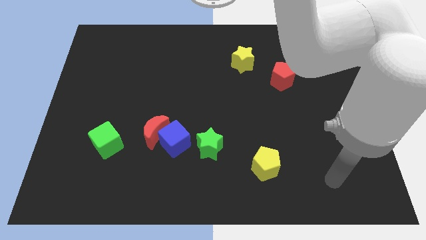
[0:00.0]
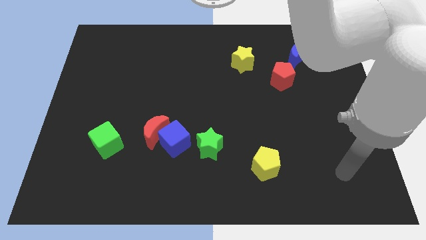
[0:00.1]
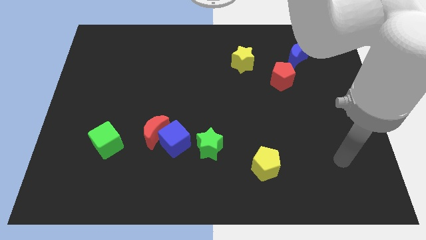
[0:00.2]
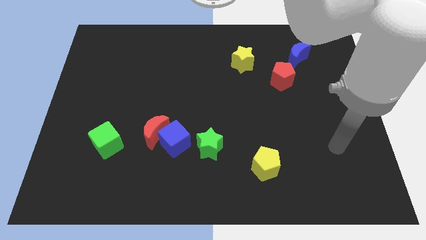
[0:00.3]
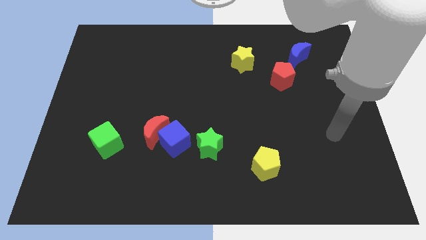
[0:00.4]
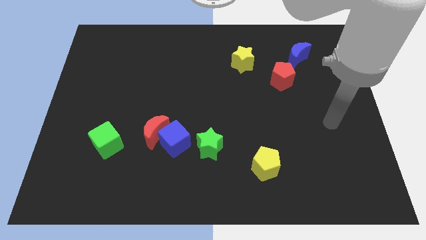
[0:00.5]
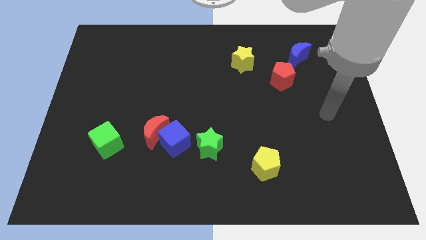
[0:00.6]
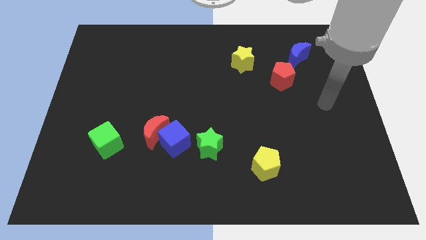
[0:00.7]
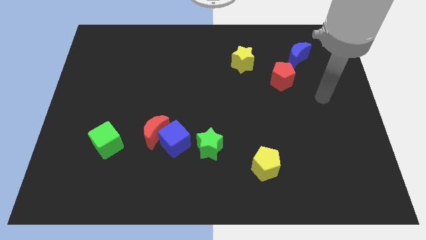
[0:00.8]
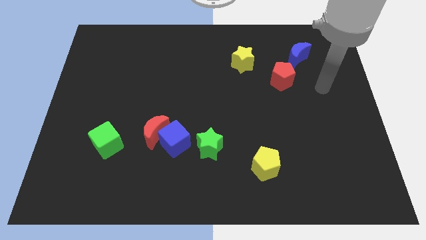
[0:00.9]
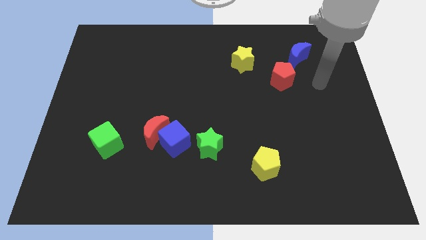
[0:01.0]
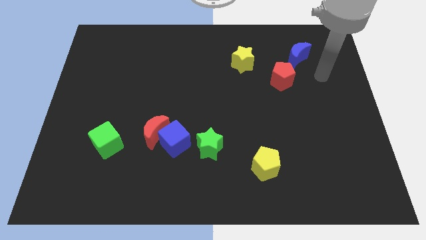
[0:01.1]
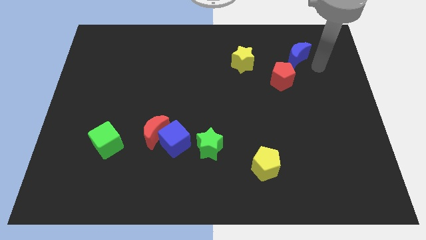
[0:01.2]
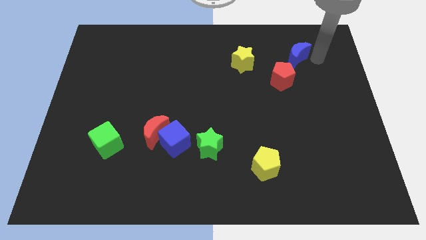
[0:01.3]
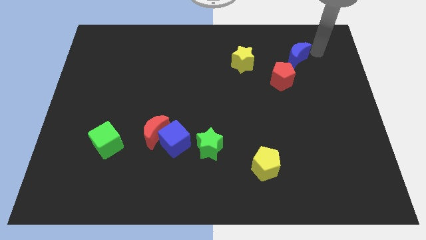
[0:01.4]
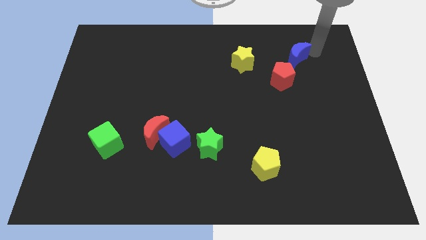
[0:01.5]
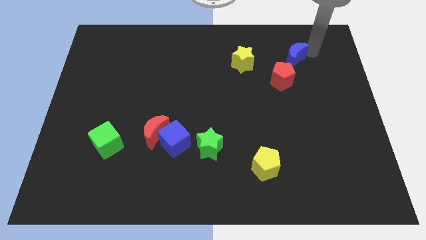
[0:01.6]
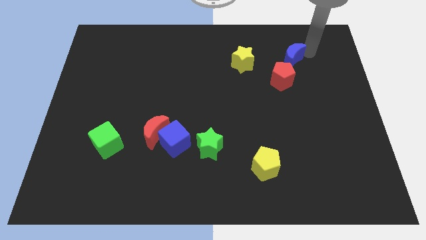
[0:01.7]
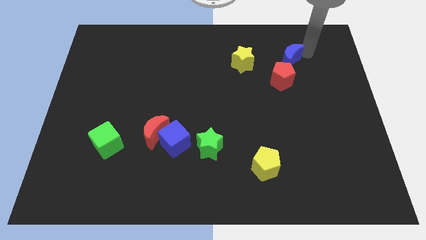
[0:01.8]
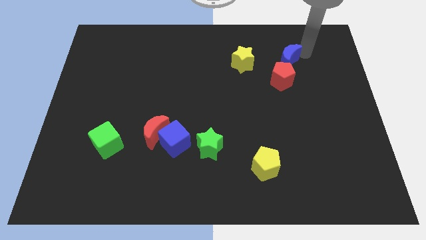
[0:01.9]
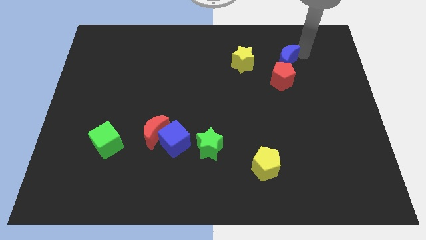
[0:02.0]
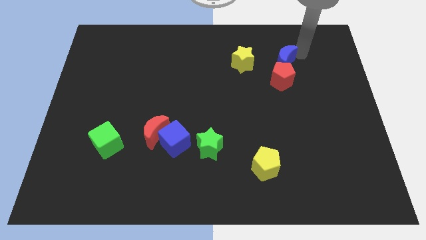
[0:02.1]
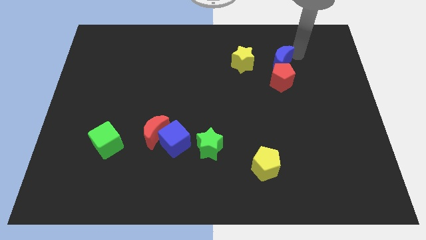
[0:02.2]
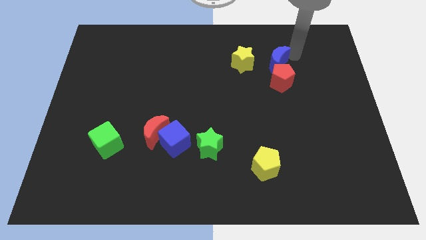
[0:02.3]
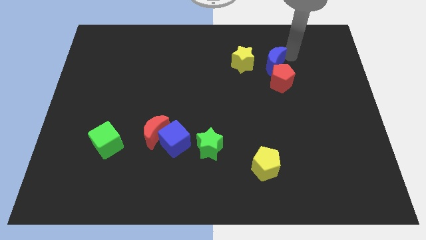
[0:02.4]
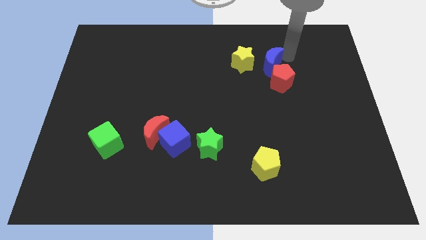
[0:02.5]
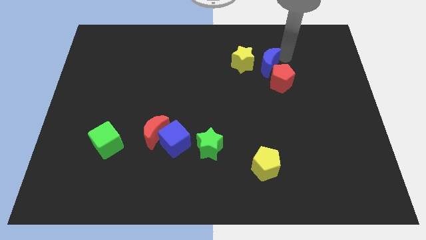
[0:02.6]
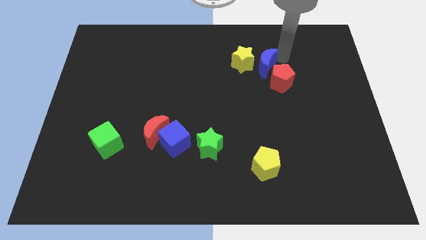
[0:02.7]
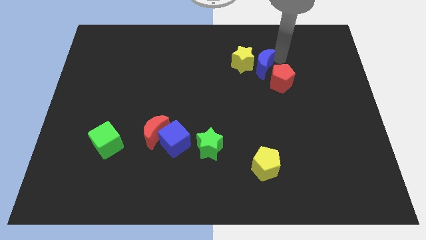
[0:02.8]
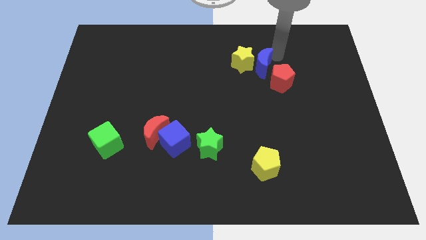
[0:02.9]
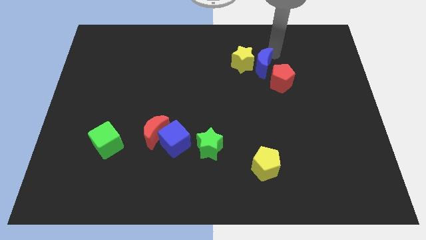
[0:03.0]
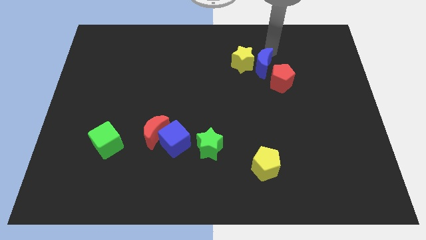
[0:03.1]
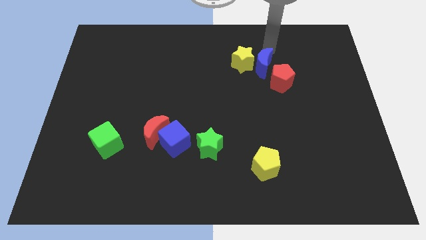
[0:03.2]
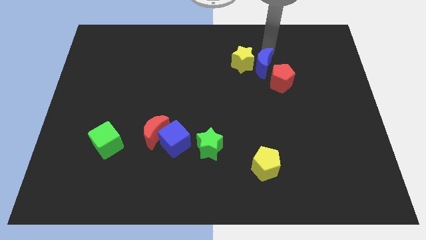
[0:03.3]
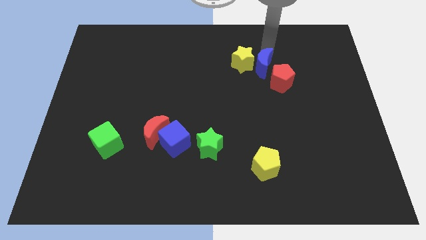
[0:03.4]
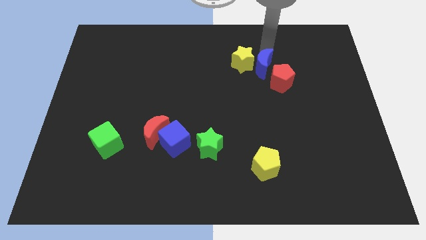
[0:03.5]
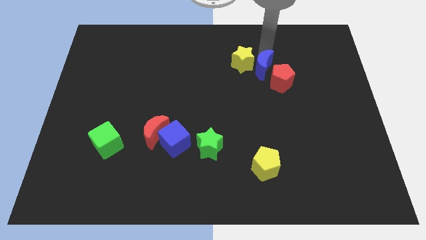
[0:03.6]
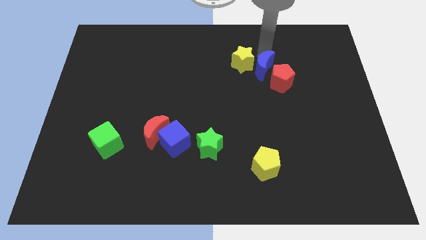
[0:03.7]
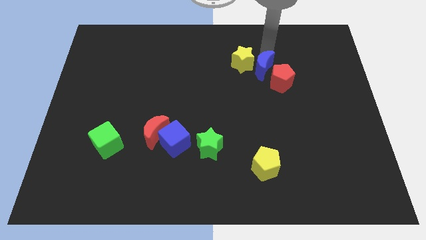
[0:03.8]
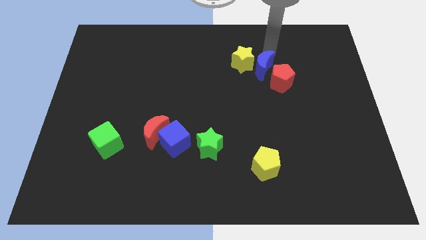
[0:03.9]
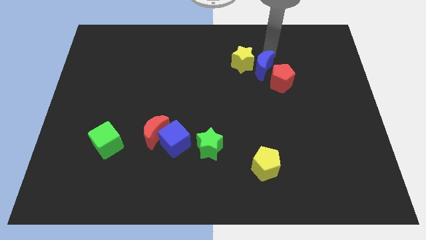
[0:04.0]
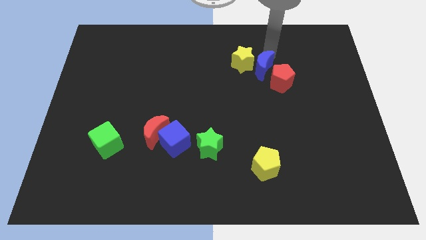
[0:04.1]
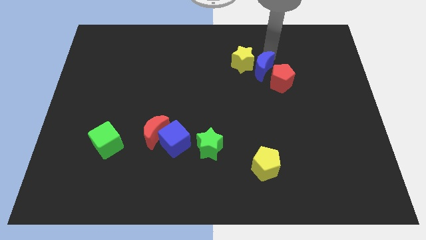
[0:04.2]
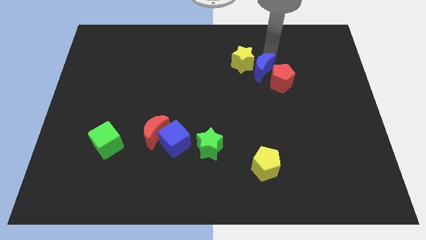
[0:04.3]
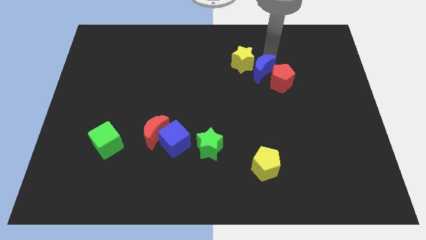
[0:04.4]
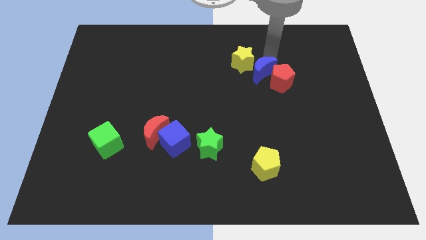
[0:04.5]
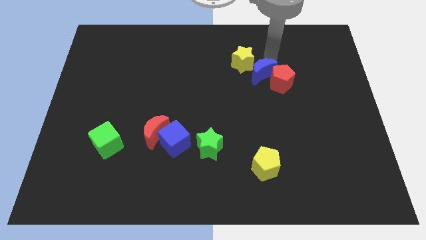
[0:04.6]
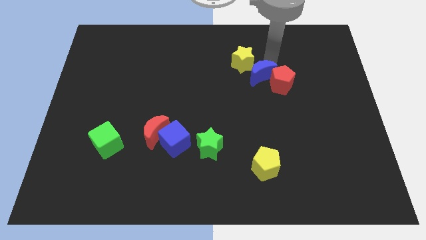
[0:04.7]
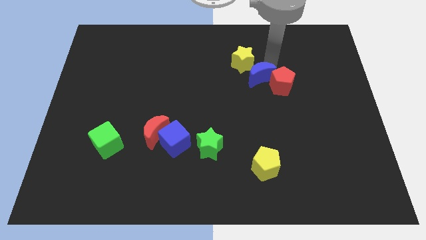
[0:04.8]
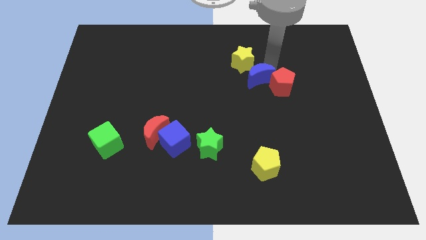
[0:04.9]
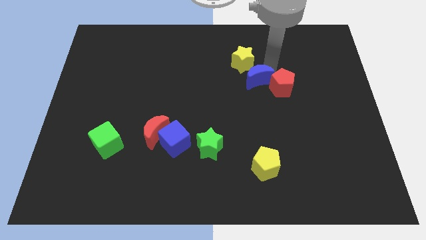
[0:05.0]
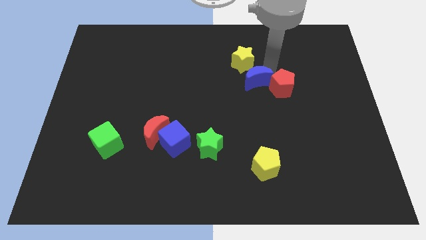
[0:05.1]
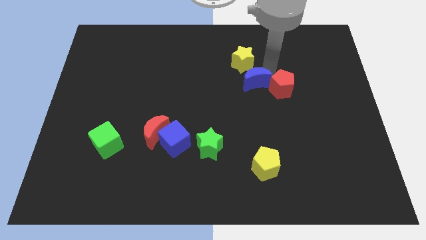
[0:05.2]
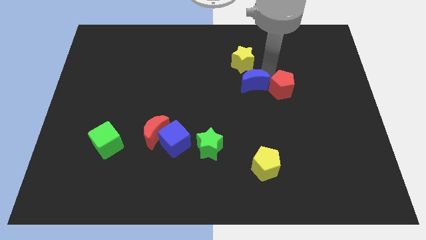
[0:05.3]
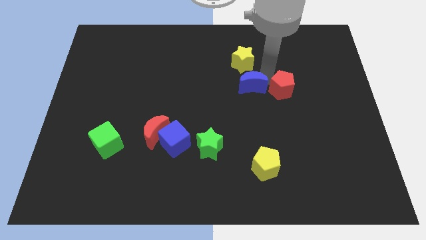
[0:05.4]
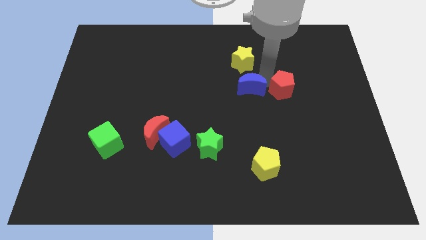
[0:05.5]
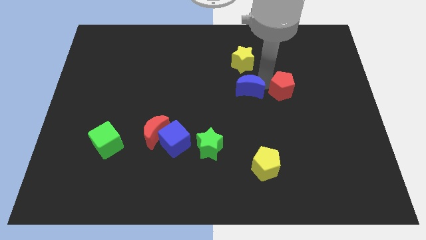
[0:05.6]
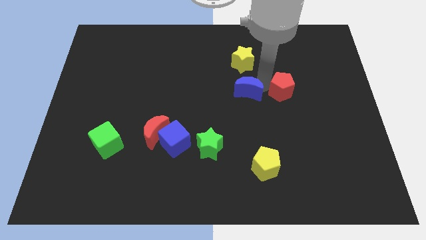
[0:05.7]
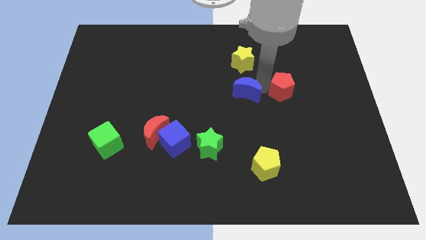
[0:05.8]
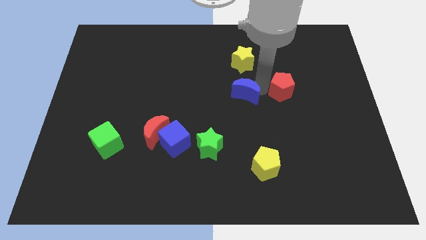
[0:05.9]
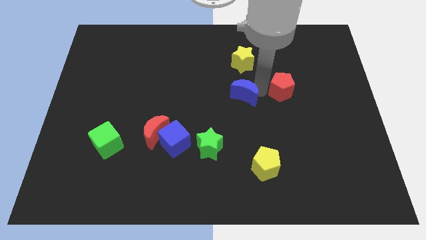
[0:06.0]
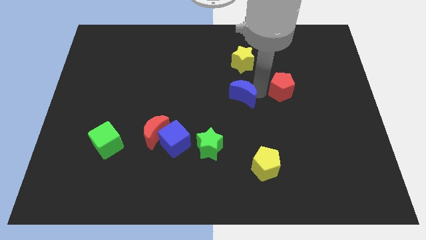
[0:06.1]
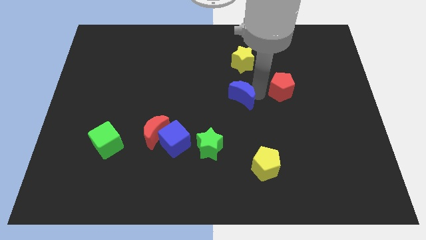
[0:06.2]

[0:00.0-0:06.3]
move the blue moon downwards and to the left

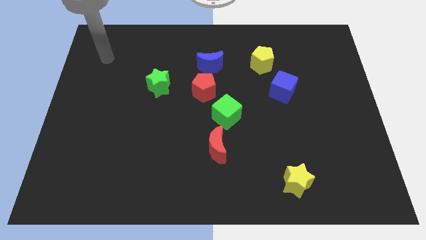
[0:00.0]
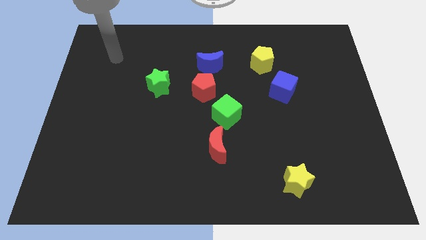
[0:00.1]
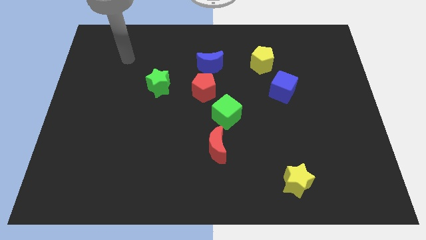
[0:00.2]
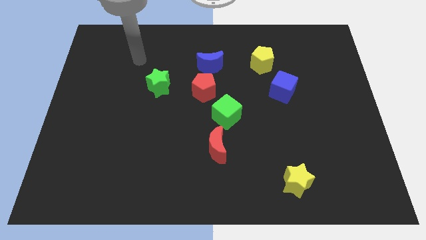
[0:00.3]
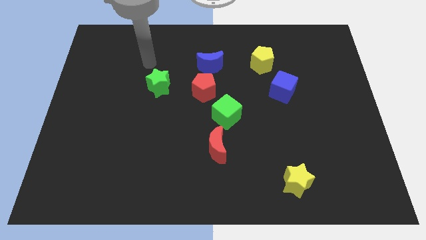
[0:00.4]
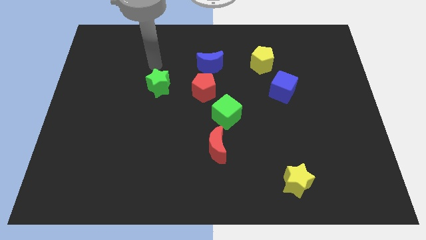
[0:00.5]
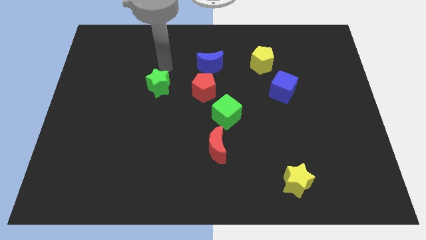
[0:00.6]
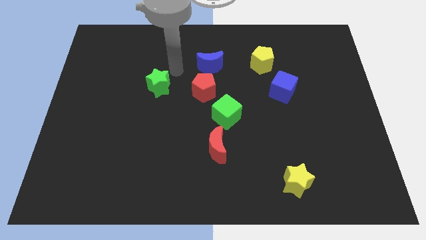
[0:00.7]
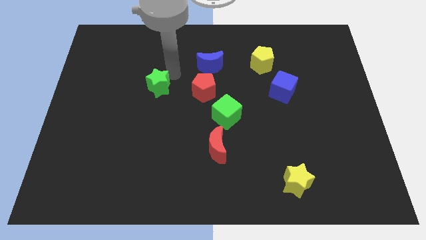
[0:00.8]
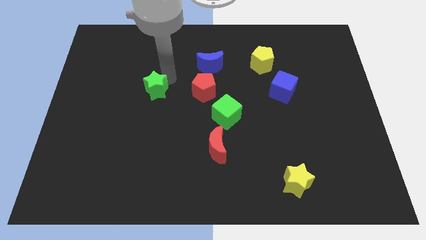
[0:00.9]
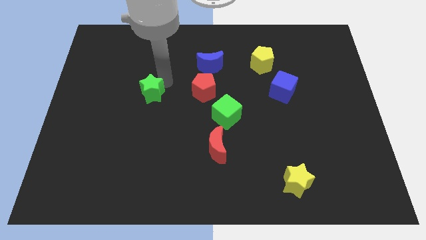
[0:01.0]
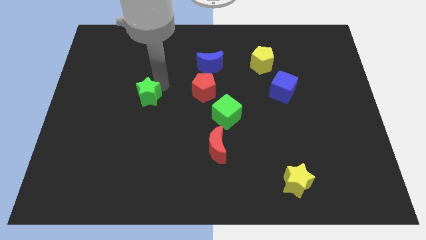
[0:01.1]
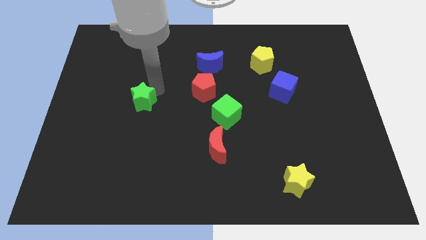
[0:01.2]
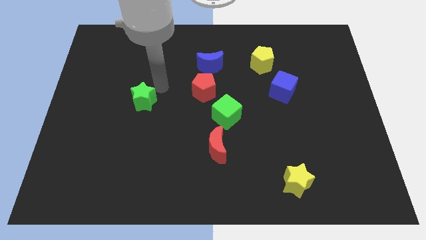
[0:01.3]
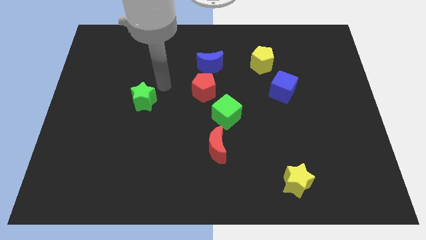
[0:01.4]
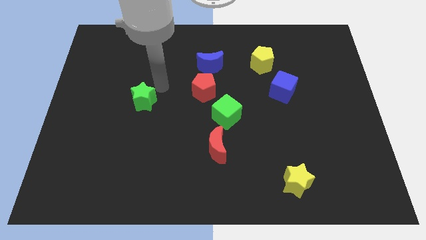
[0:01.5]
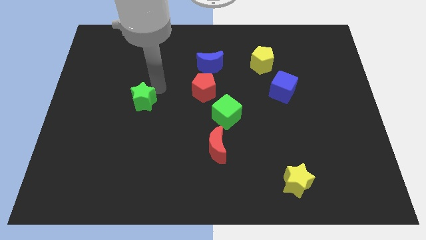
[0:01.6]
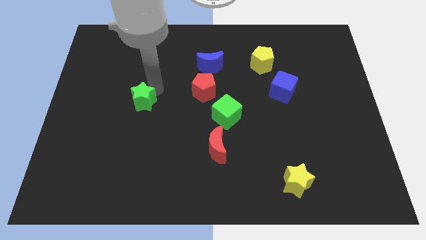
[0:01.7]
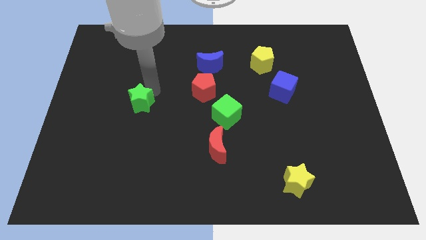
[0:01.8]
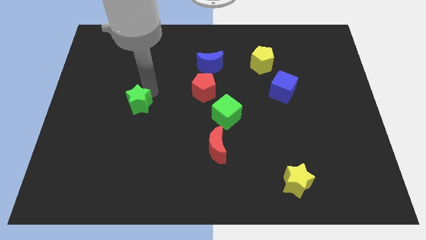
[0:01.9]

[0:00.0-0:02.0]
slide the green star downwards and then left somewhat
